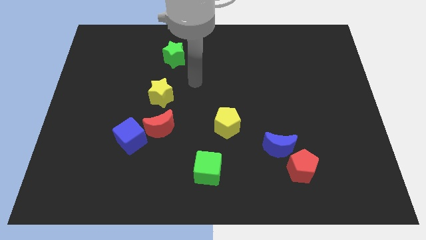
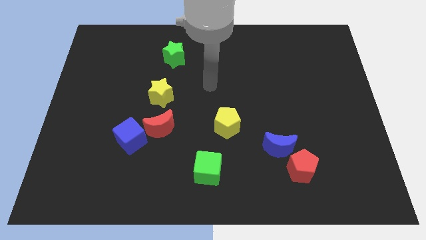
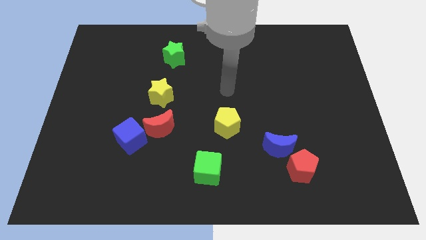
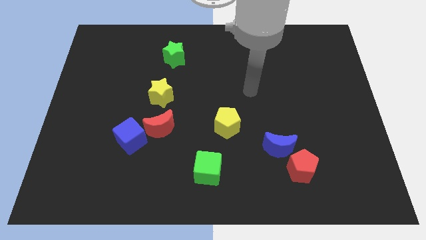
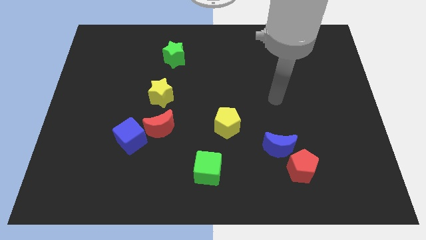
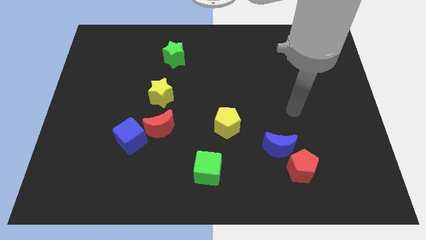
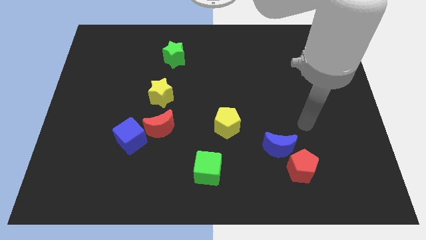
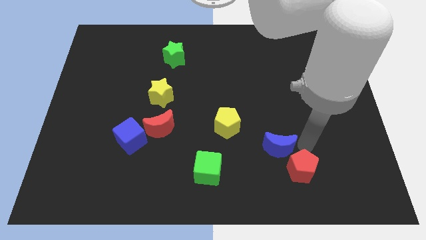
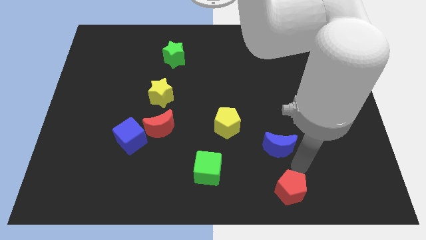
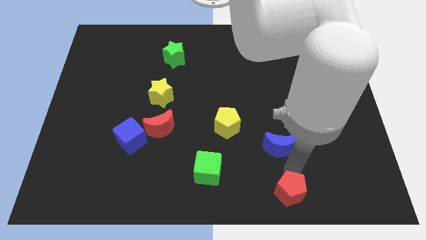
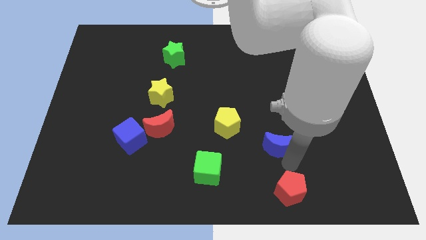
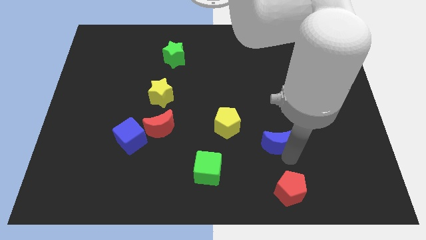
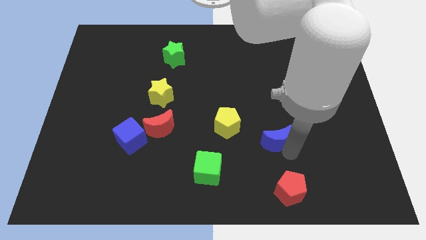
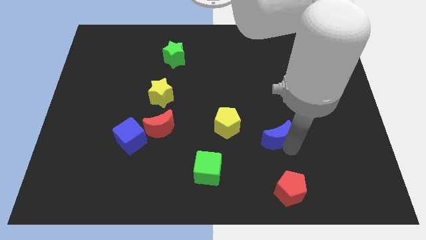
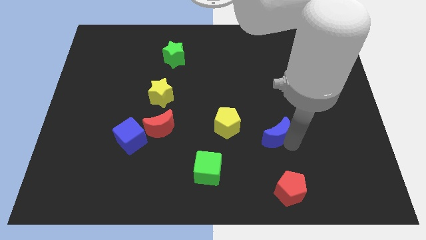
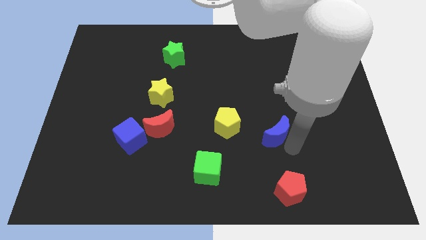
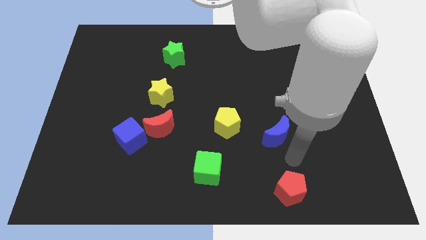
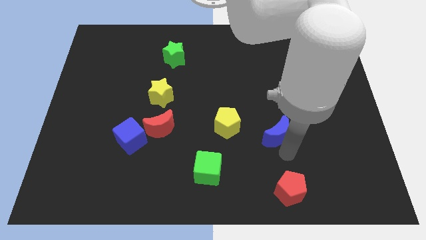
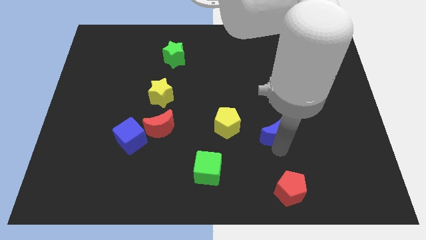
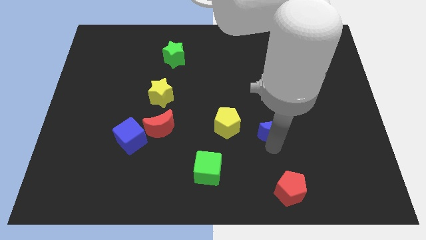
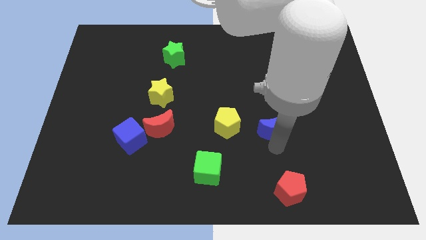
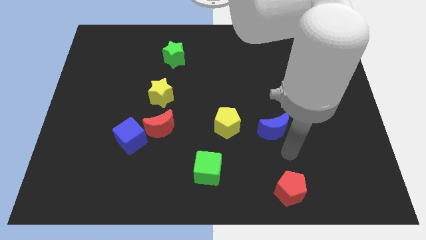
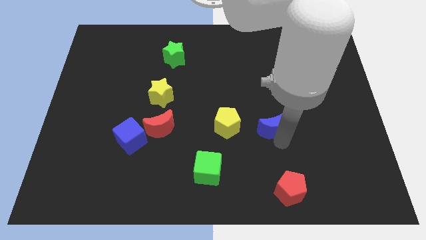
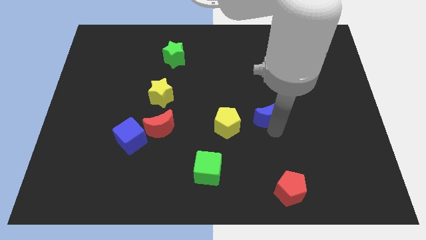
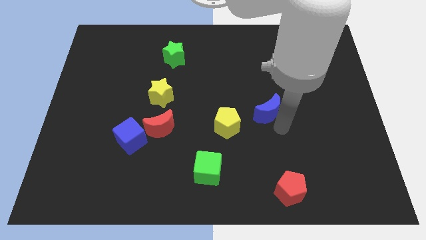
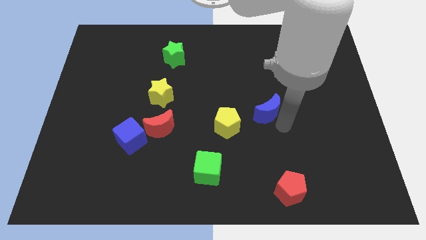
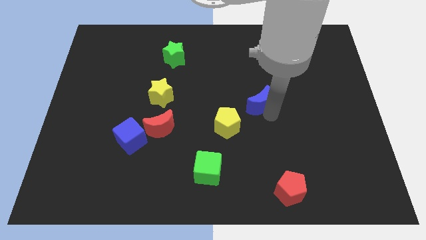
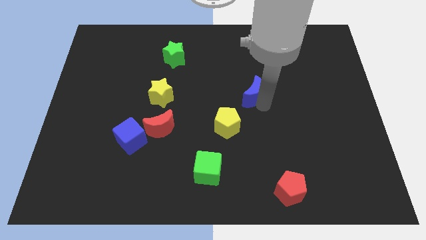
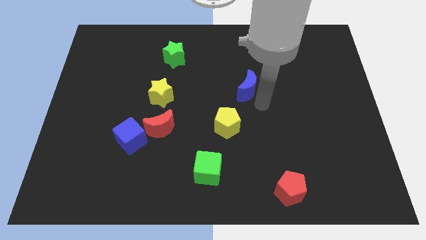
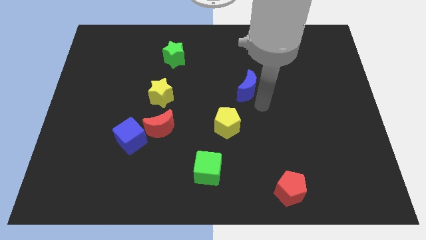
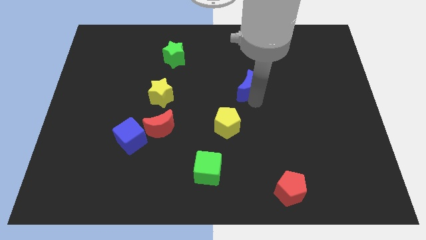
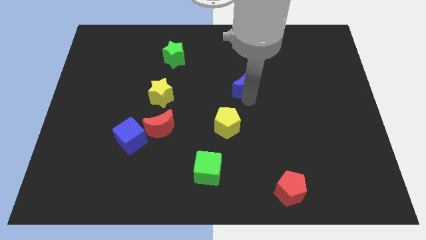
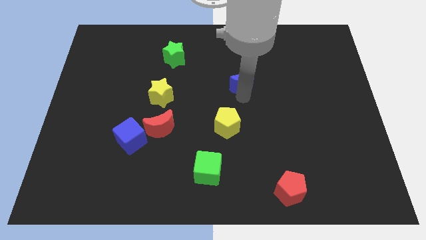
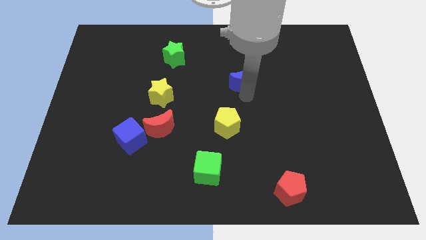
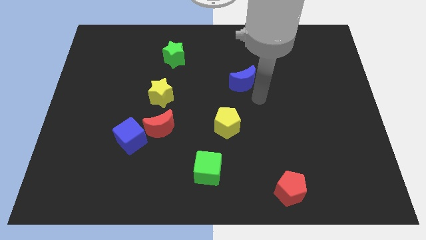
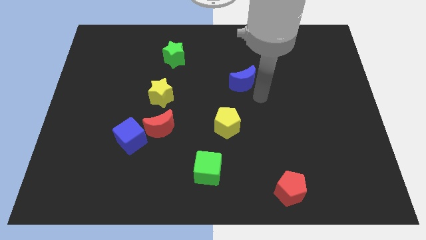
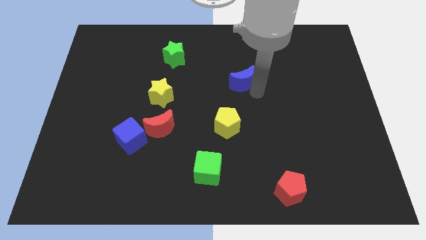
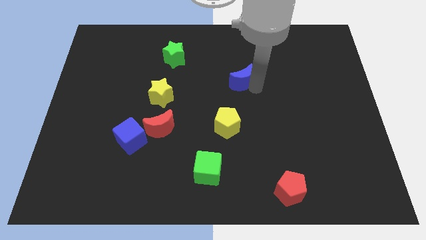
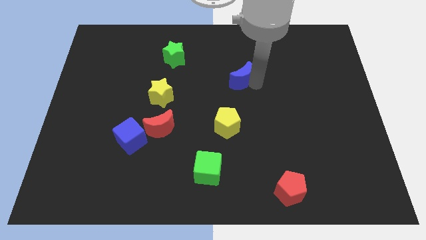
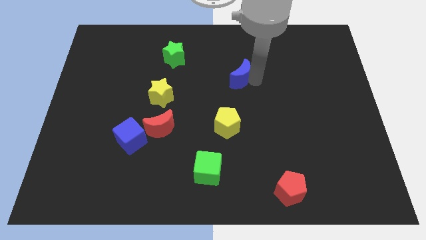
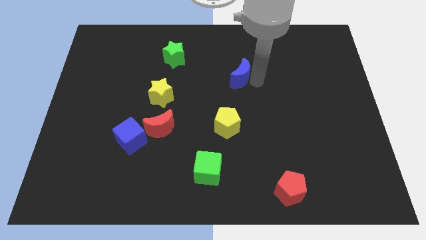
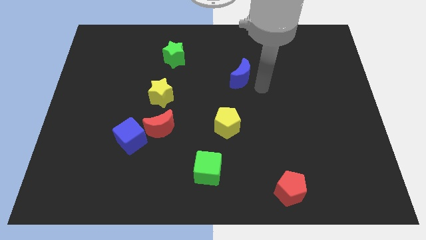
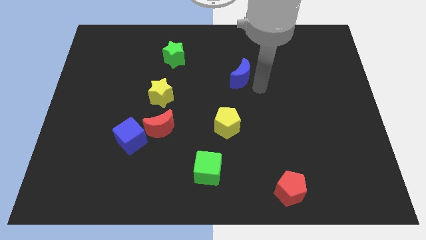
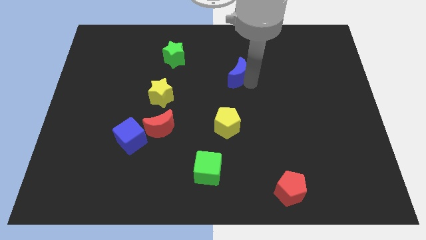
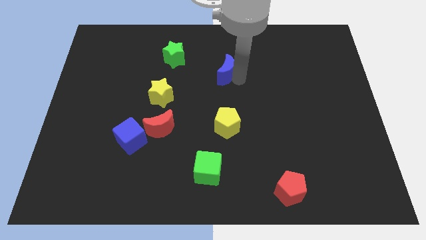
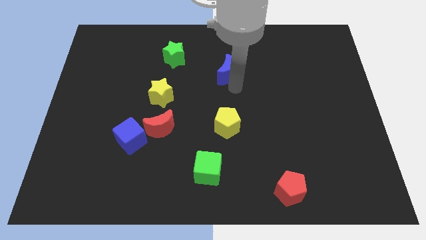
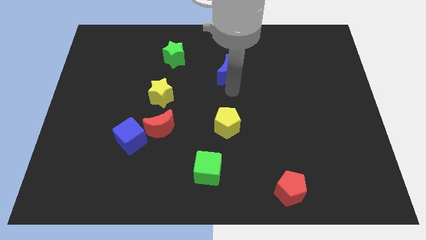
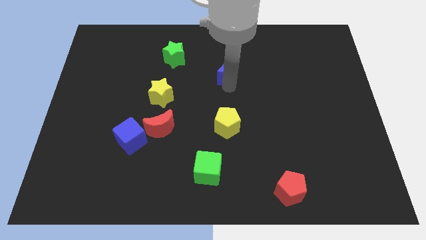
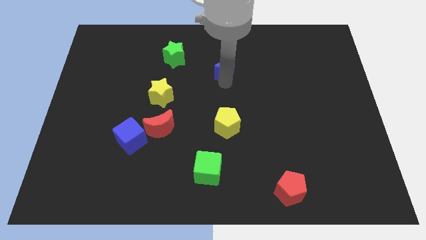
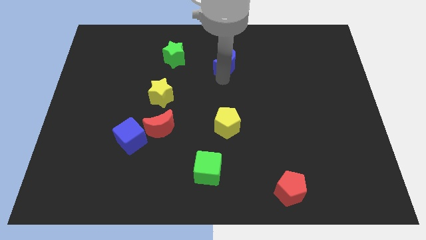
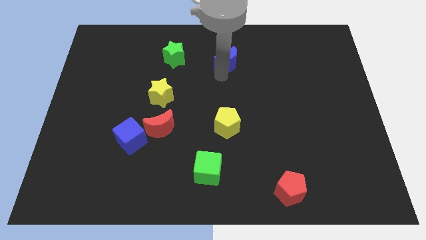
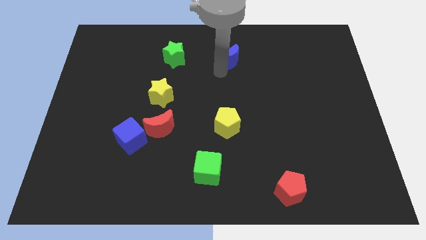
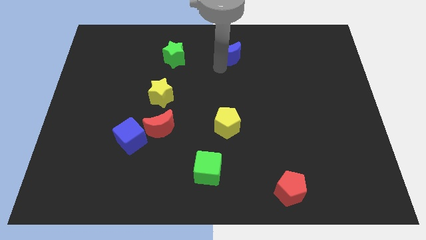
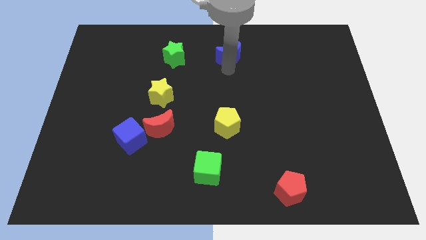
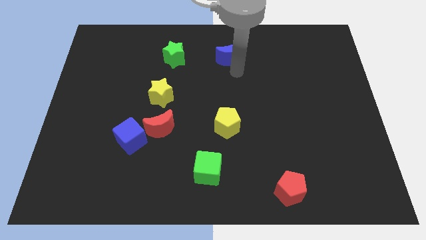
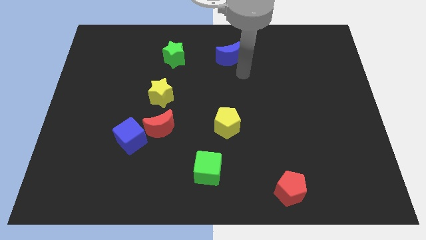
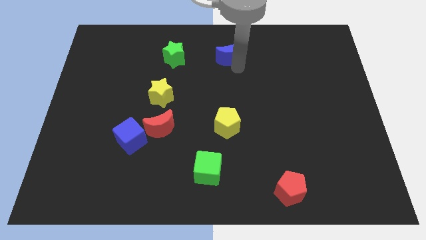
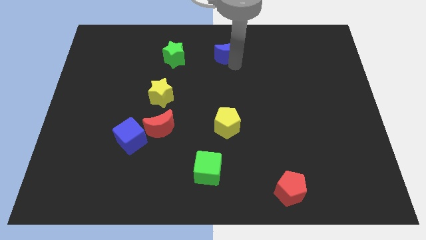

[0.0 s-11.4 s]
slide the blue moon to the top side

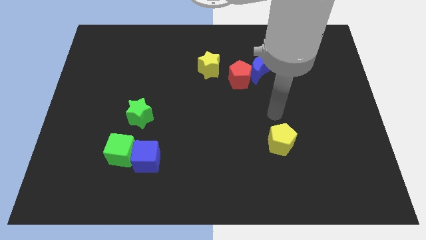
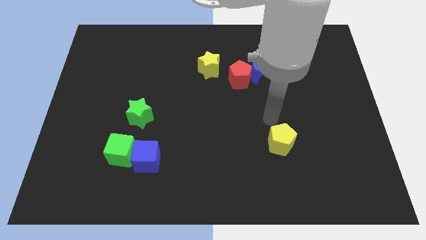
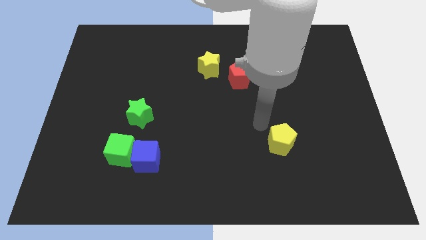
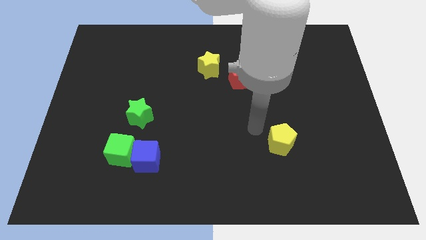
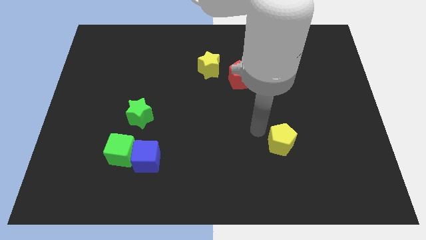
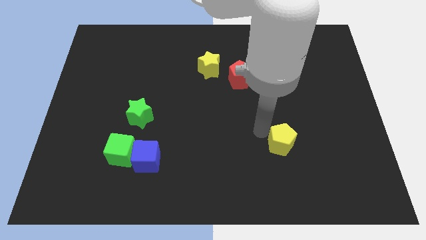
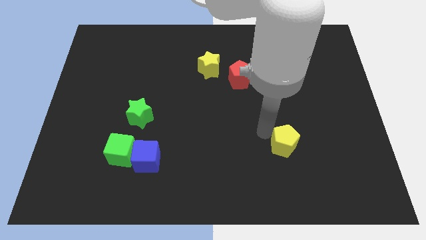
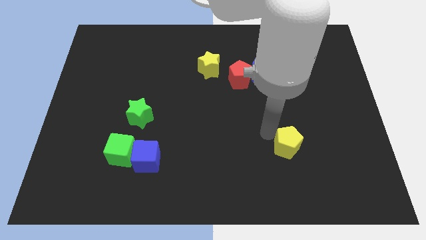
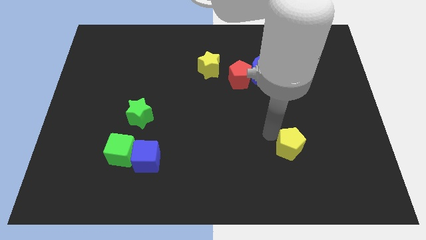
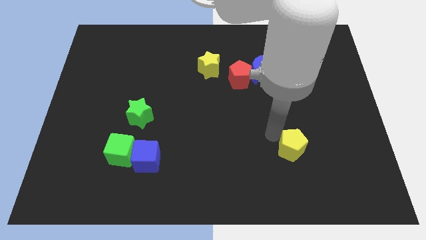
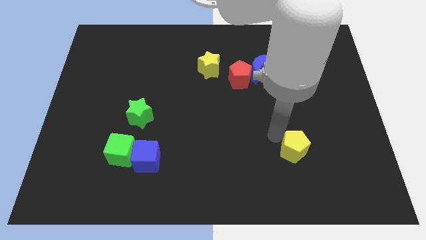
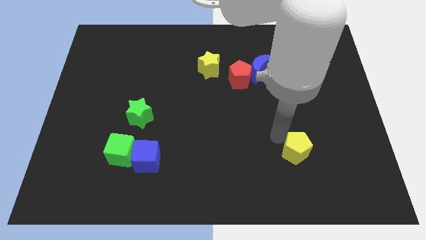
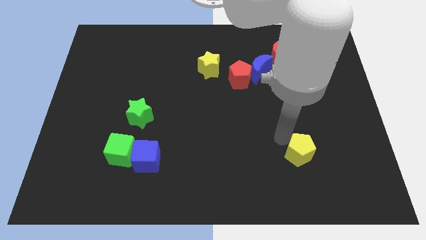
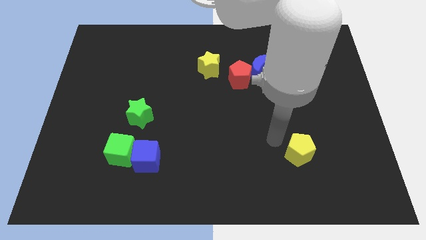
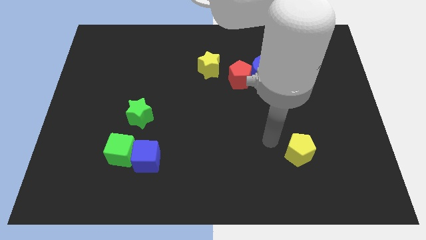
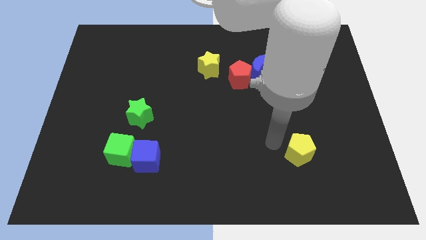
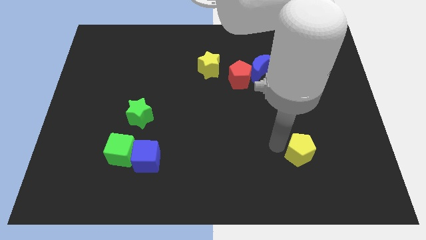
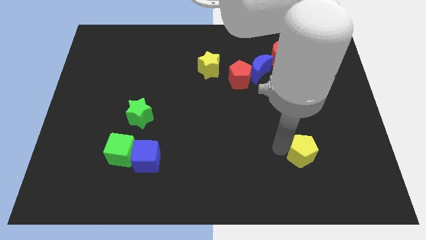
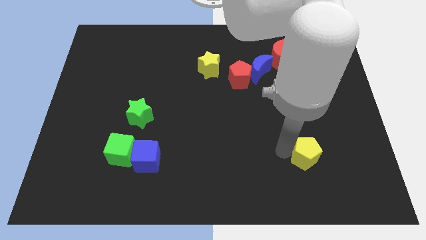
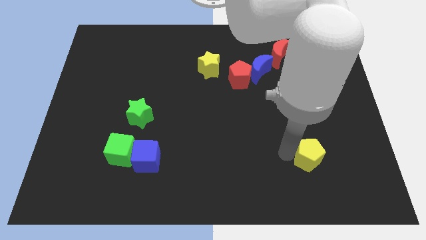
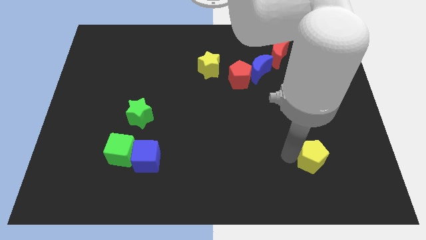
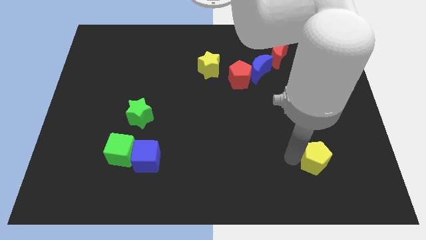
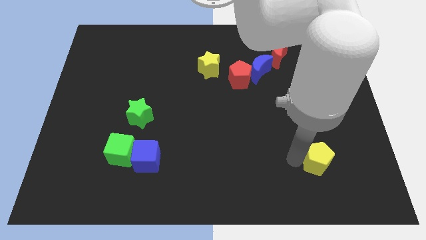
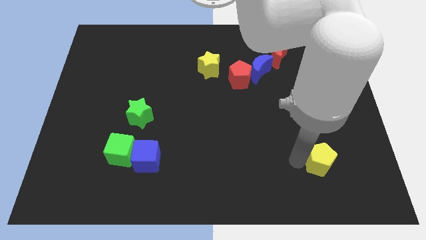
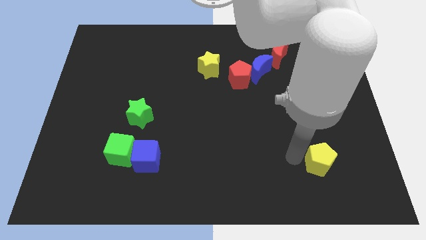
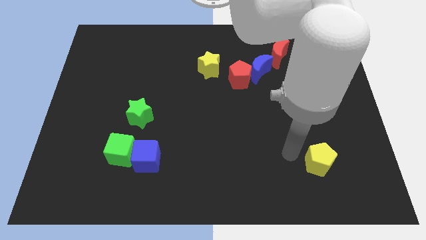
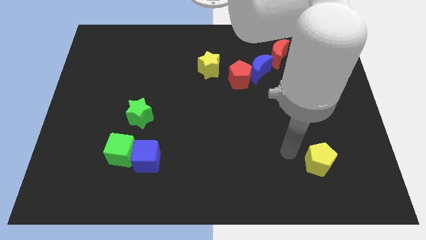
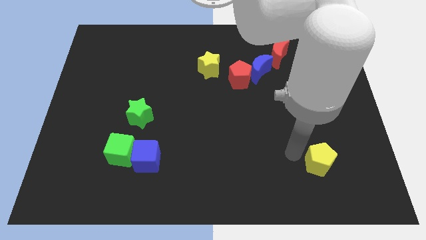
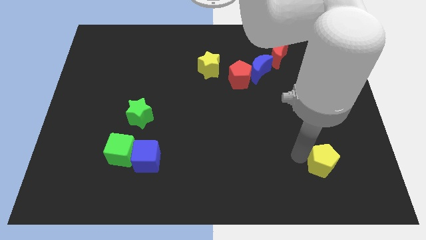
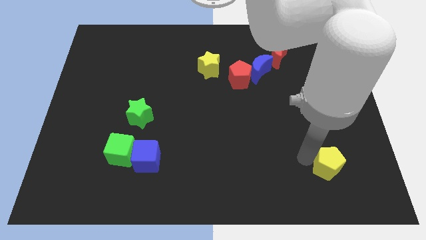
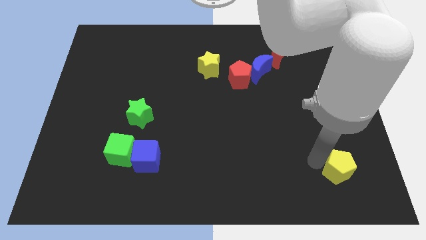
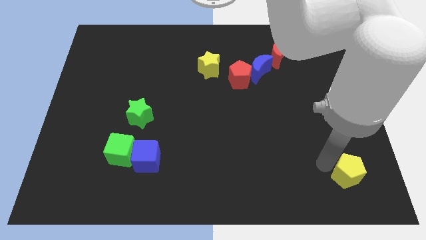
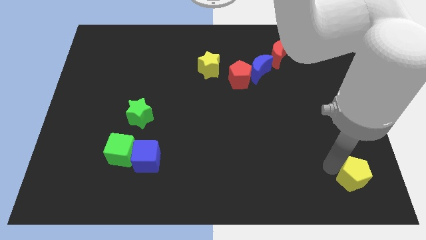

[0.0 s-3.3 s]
slide the yellow pentagon to the bottom right of the board
